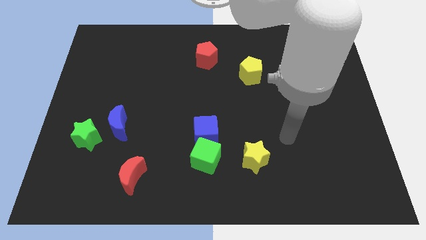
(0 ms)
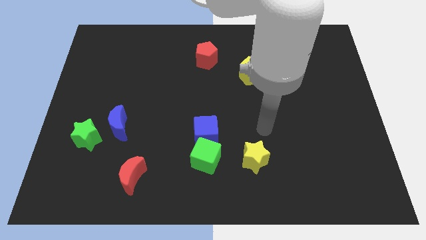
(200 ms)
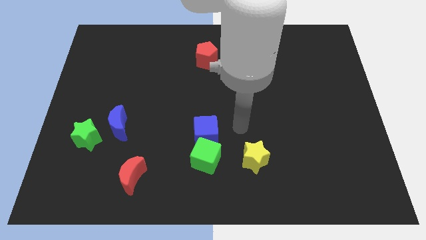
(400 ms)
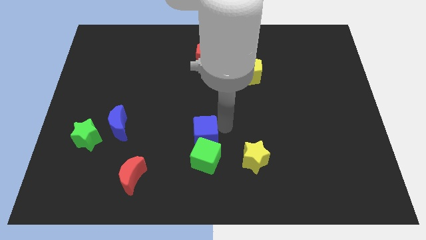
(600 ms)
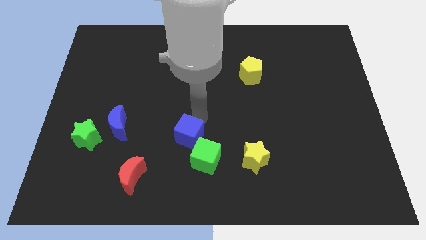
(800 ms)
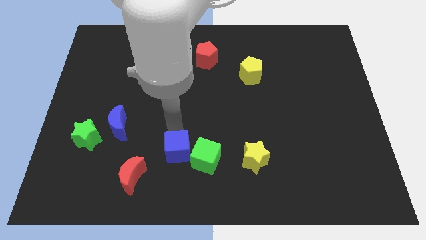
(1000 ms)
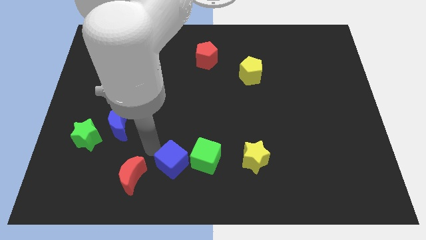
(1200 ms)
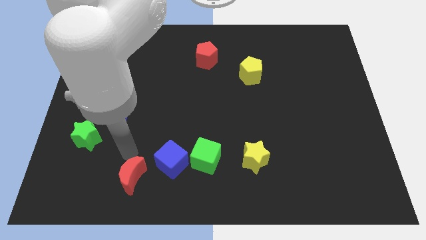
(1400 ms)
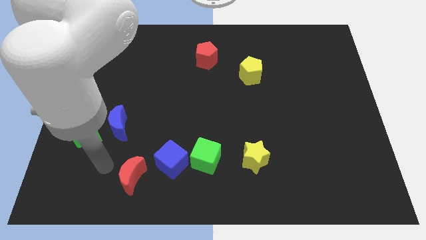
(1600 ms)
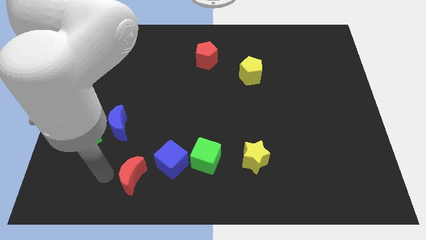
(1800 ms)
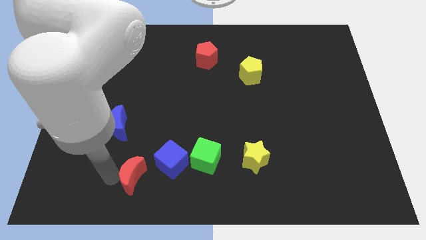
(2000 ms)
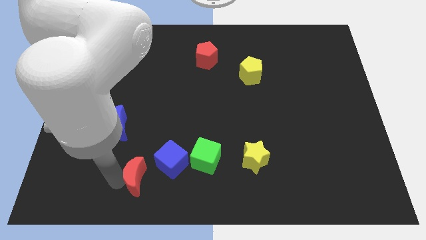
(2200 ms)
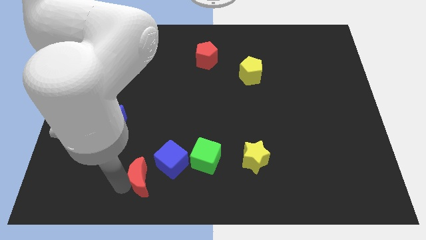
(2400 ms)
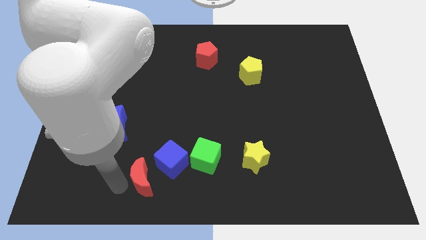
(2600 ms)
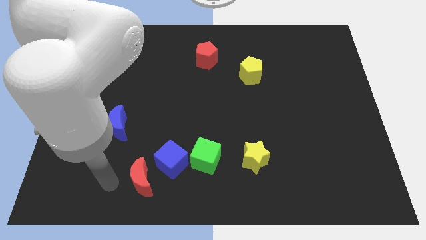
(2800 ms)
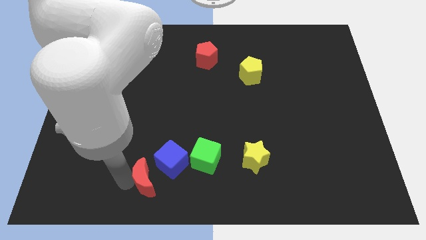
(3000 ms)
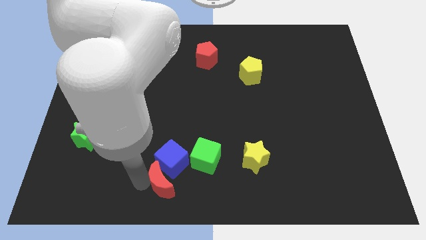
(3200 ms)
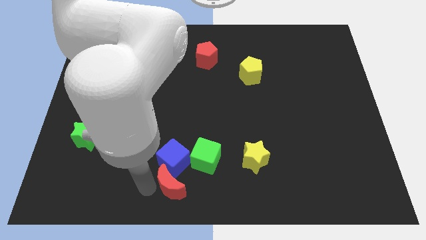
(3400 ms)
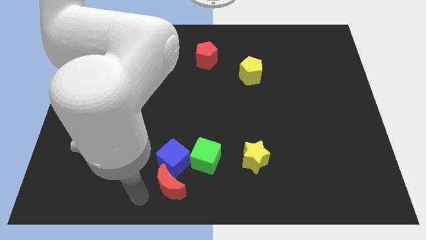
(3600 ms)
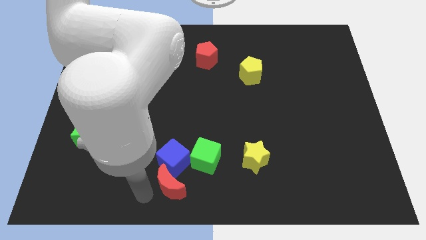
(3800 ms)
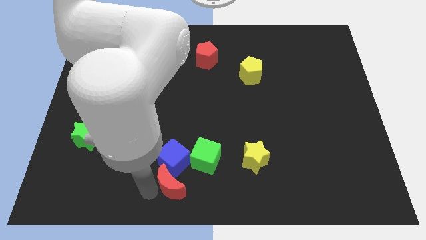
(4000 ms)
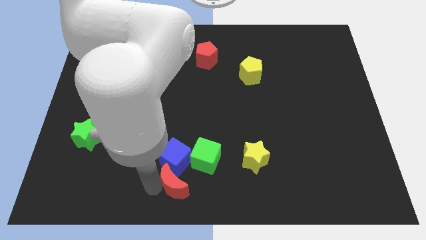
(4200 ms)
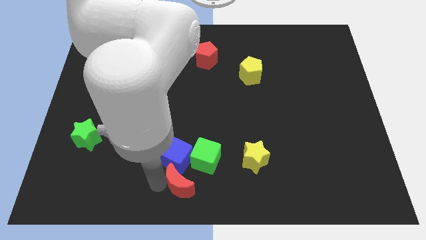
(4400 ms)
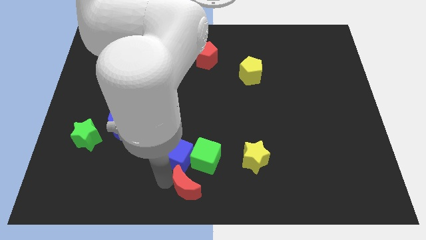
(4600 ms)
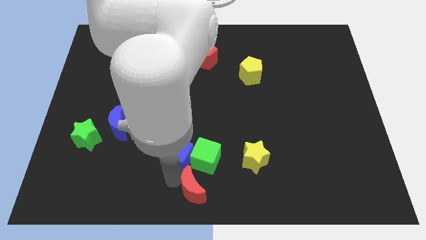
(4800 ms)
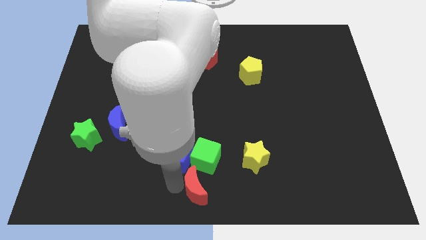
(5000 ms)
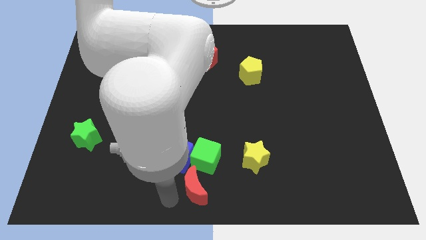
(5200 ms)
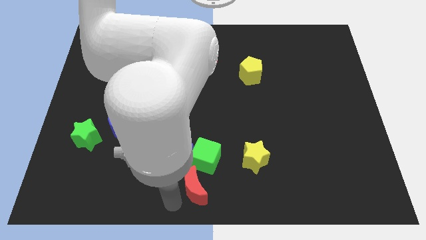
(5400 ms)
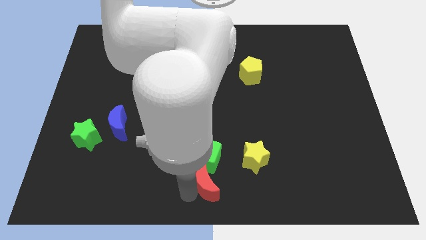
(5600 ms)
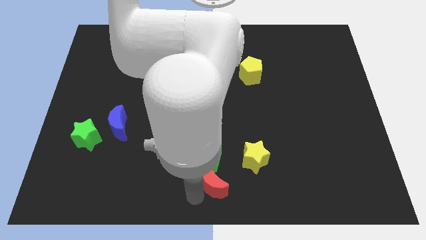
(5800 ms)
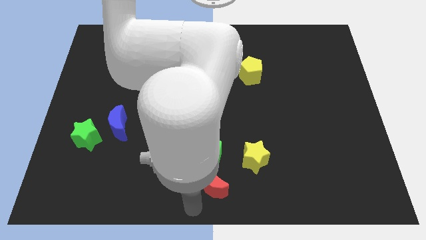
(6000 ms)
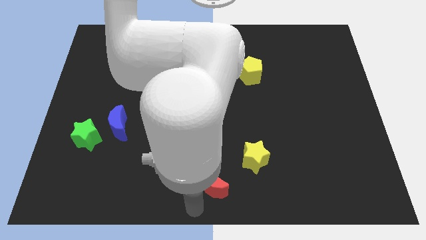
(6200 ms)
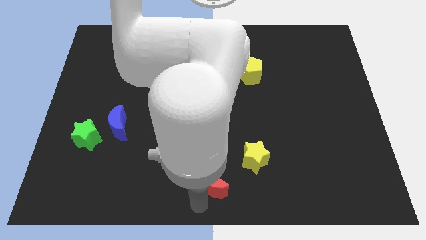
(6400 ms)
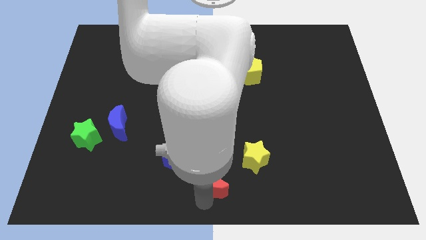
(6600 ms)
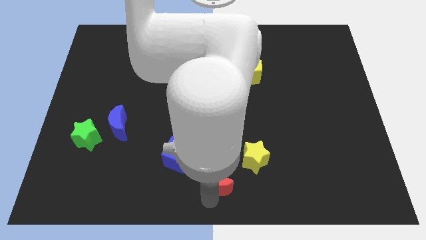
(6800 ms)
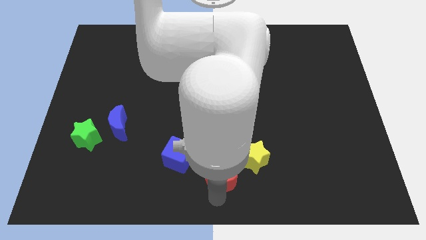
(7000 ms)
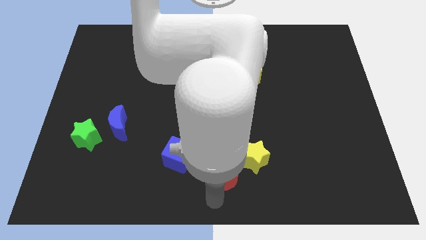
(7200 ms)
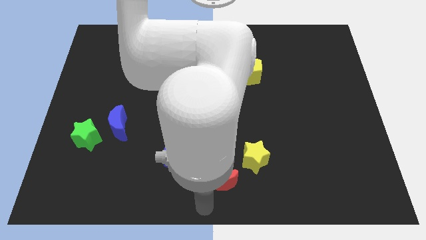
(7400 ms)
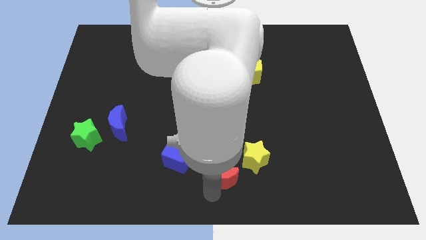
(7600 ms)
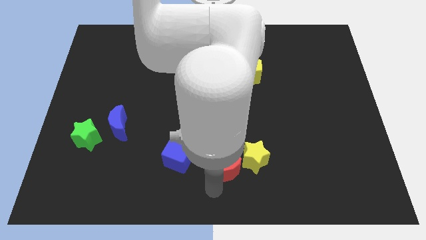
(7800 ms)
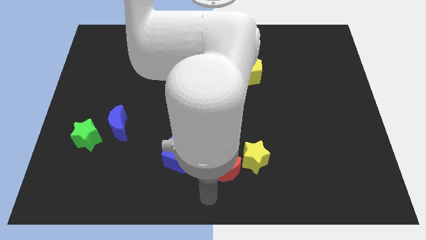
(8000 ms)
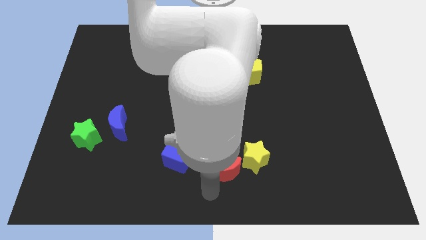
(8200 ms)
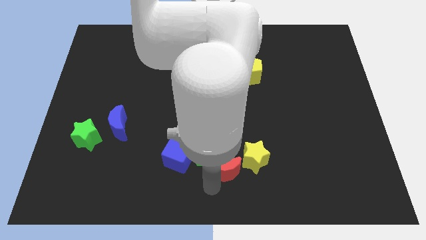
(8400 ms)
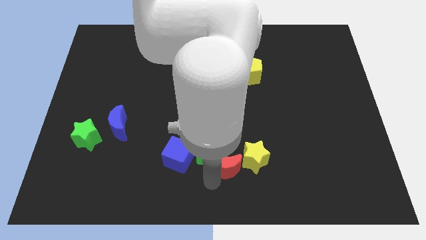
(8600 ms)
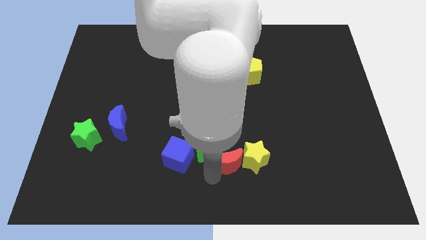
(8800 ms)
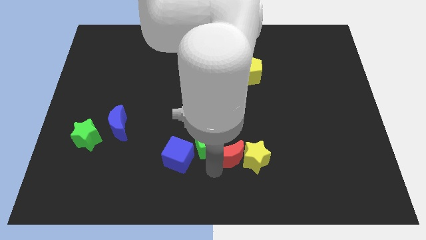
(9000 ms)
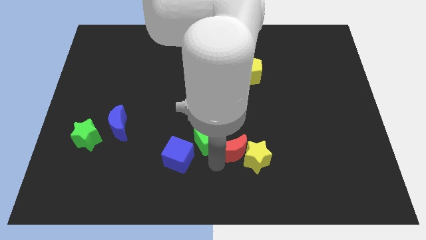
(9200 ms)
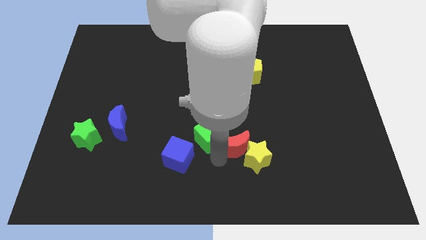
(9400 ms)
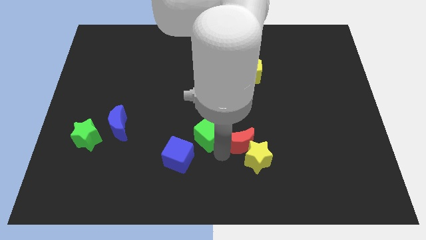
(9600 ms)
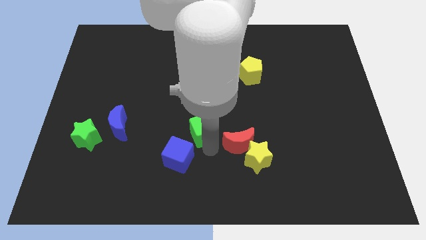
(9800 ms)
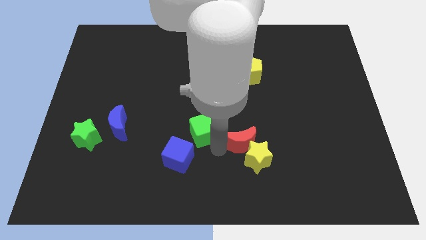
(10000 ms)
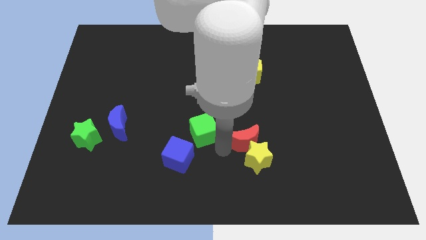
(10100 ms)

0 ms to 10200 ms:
push the red moon diagonally up and to the right of the yellow star

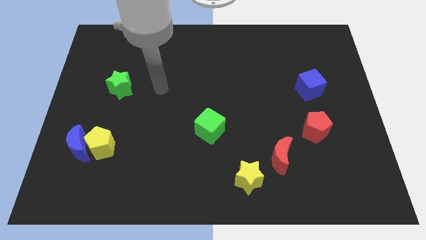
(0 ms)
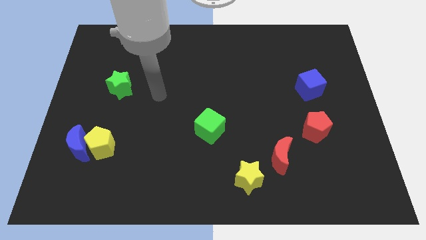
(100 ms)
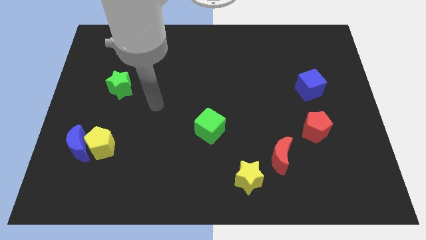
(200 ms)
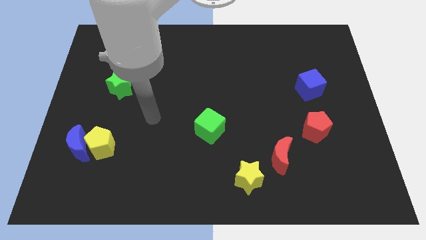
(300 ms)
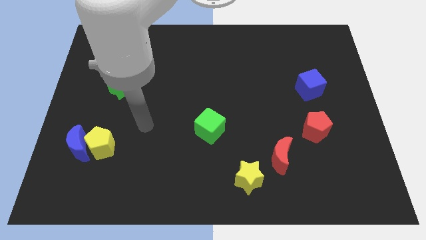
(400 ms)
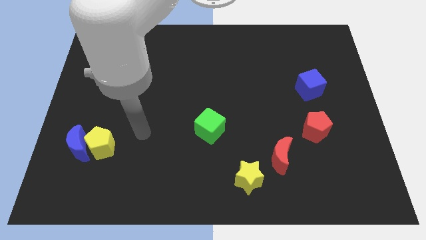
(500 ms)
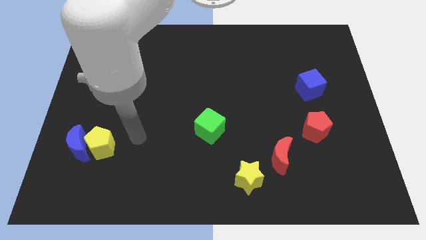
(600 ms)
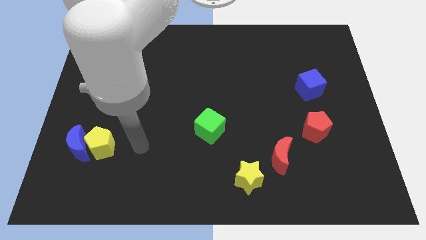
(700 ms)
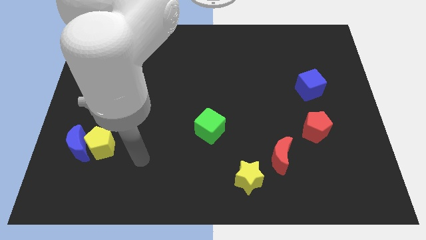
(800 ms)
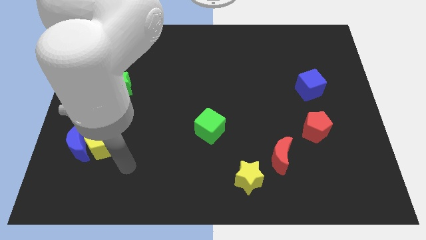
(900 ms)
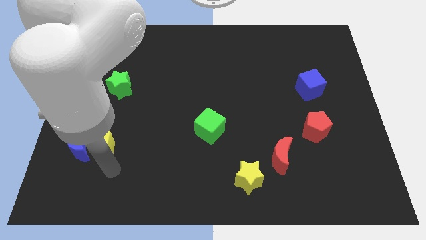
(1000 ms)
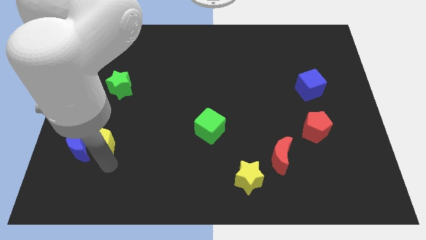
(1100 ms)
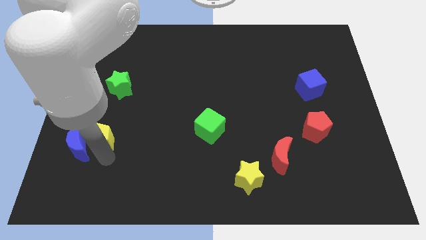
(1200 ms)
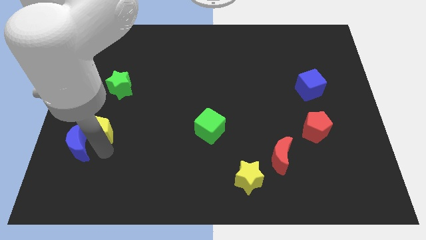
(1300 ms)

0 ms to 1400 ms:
put the yellow pentagon to the top side of the blue moon
